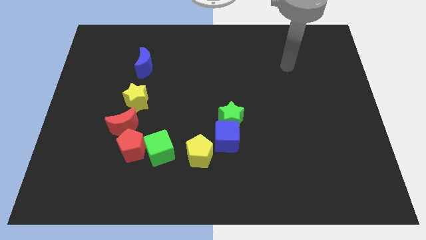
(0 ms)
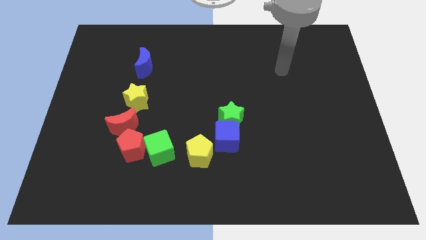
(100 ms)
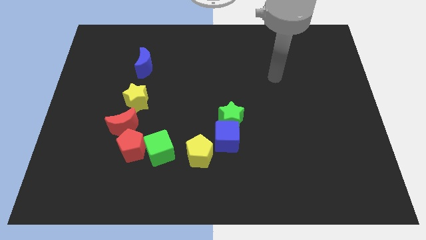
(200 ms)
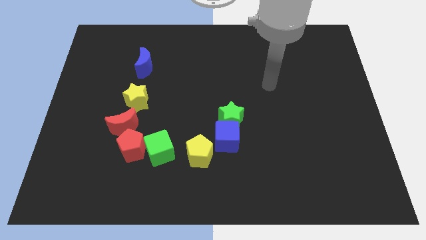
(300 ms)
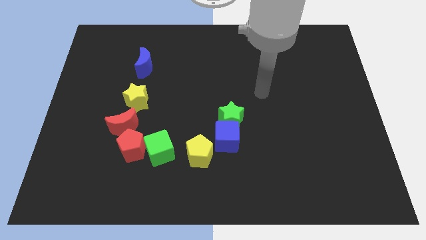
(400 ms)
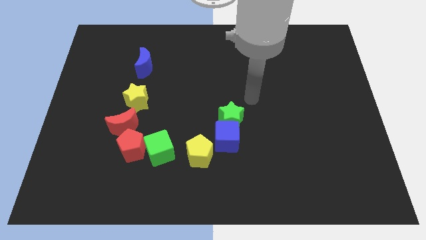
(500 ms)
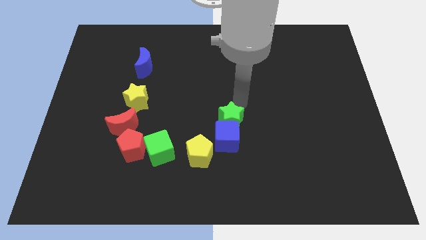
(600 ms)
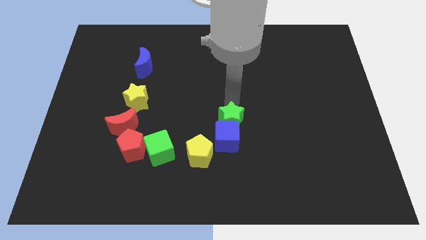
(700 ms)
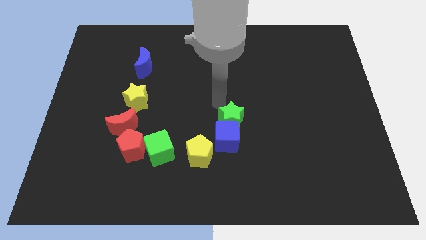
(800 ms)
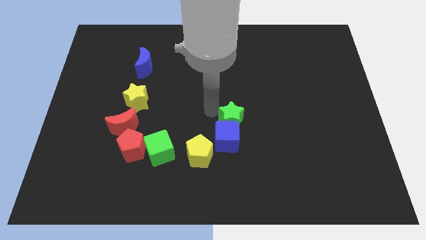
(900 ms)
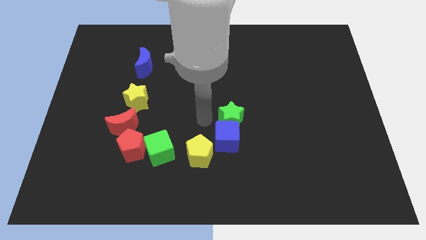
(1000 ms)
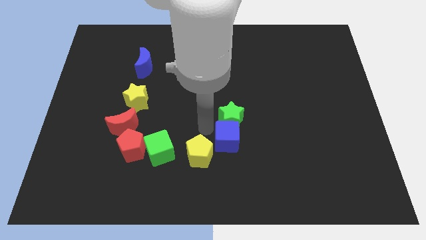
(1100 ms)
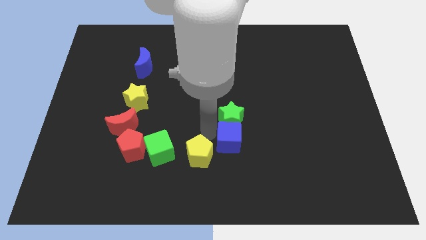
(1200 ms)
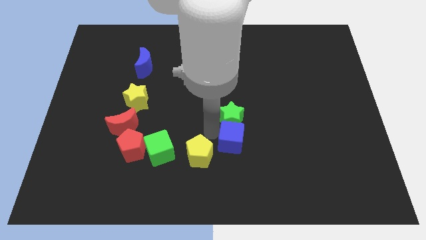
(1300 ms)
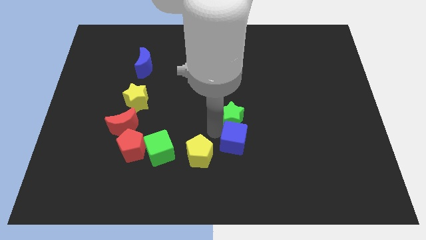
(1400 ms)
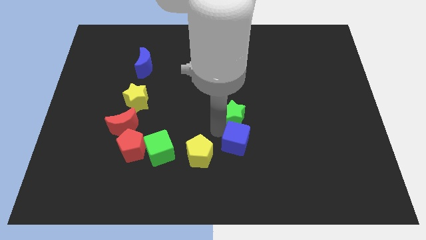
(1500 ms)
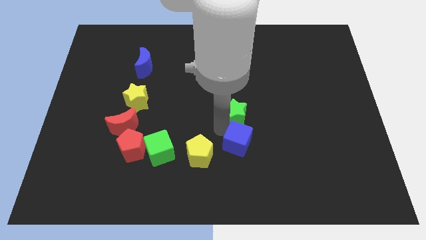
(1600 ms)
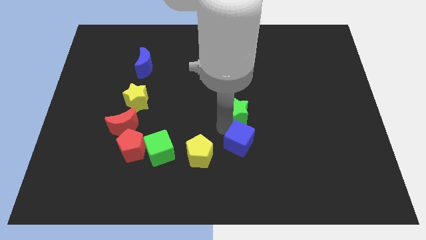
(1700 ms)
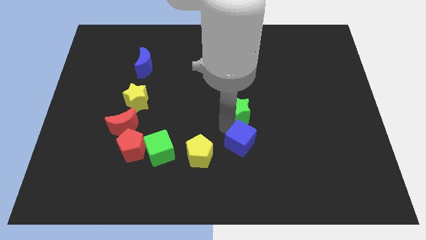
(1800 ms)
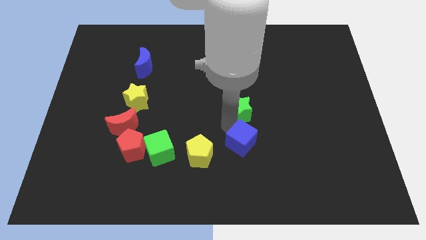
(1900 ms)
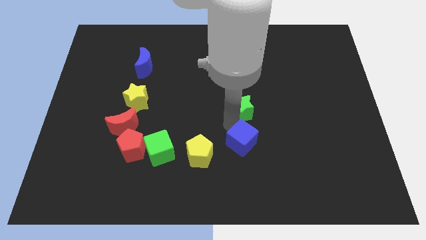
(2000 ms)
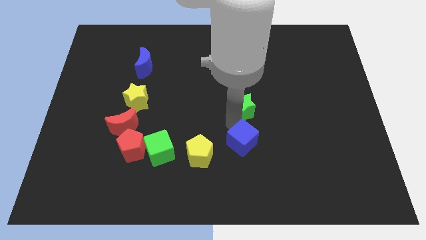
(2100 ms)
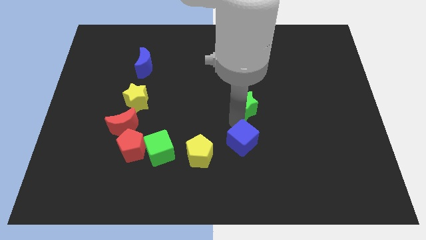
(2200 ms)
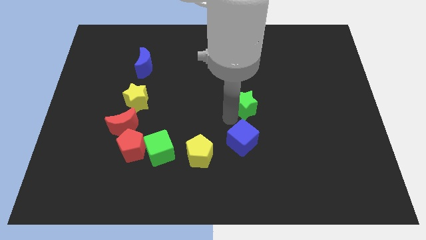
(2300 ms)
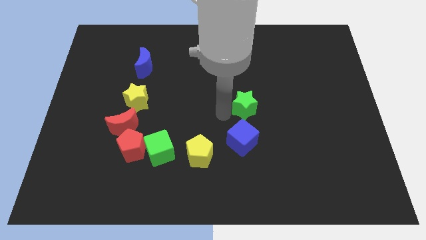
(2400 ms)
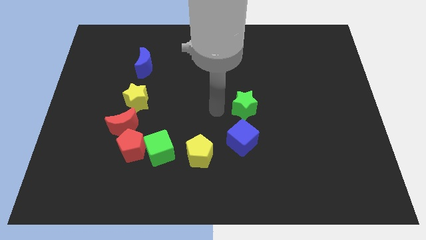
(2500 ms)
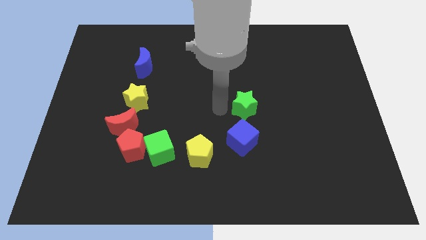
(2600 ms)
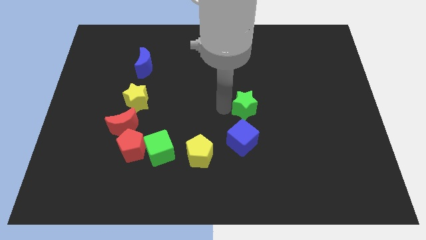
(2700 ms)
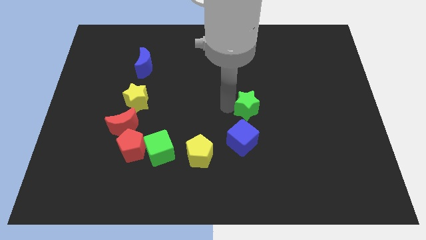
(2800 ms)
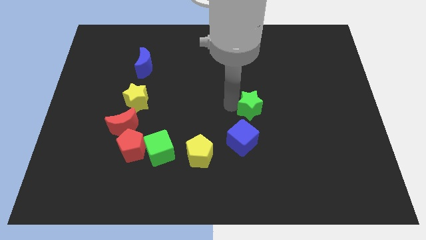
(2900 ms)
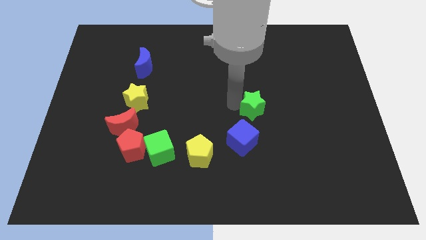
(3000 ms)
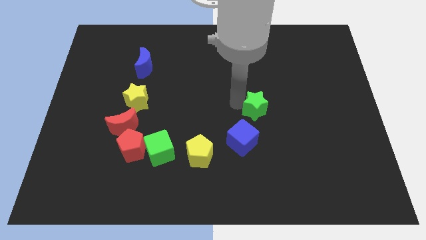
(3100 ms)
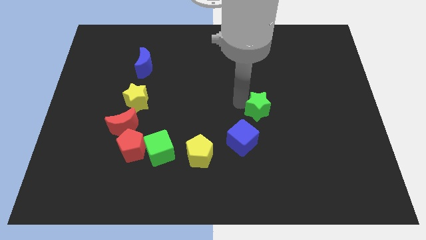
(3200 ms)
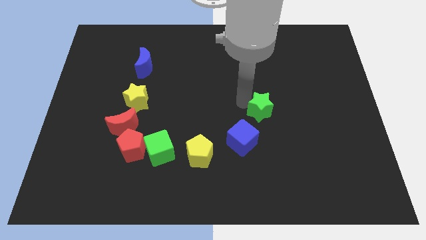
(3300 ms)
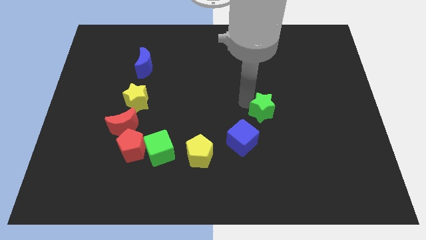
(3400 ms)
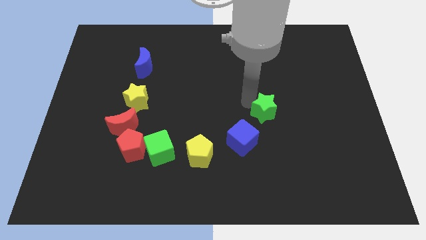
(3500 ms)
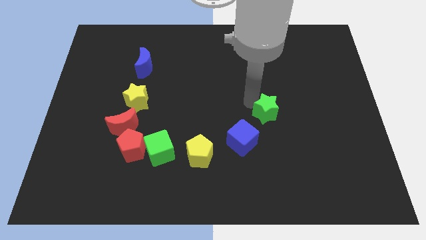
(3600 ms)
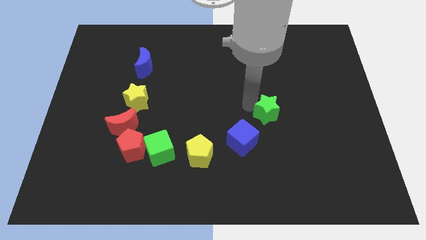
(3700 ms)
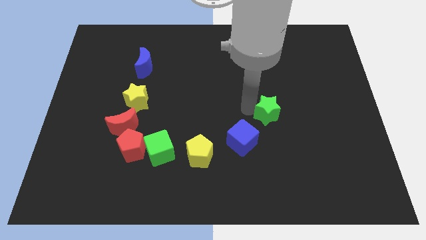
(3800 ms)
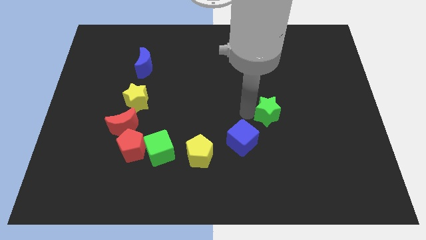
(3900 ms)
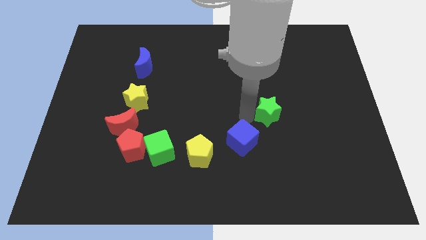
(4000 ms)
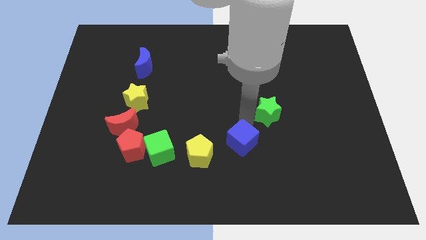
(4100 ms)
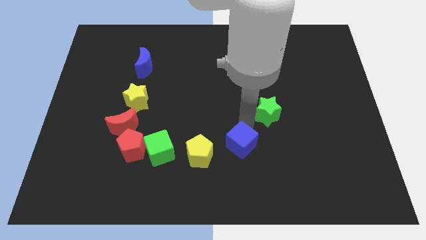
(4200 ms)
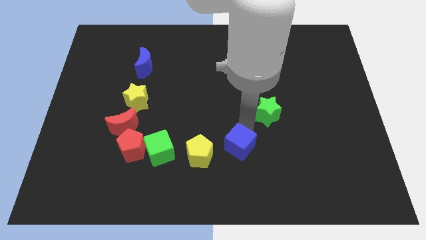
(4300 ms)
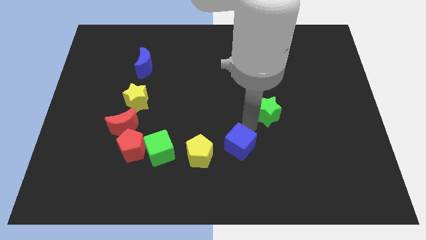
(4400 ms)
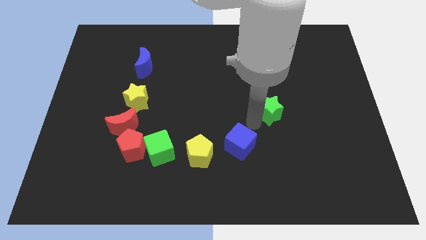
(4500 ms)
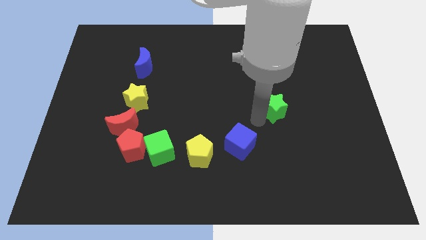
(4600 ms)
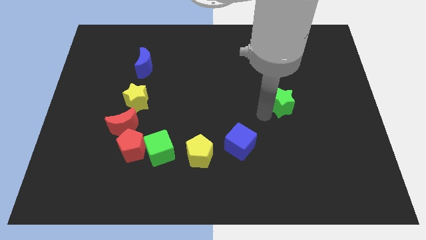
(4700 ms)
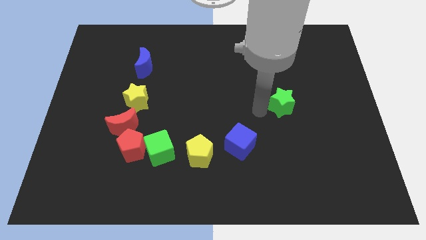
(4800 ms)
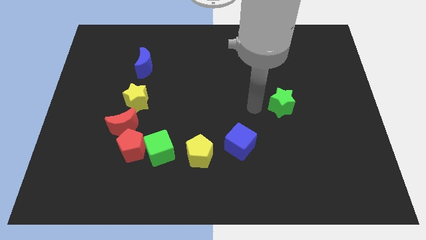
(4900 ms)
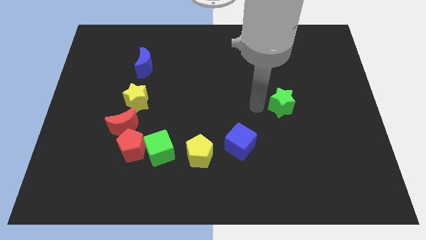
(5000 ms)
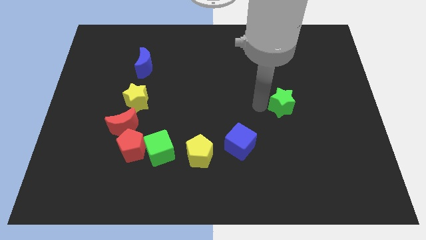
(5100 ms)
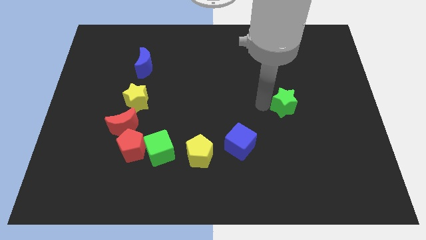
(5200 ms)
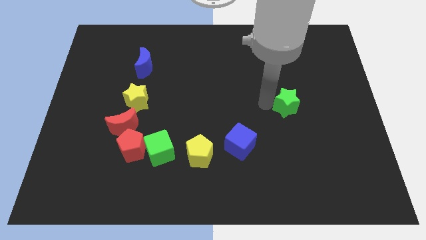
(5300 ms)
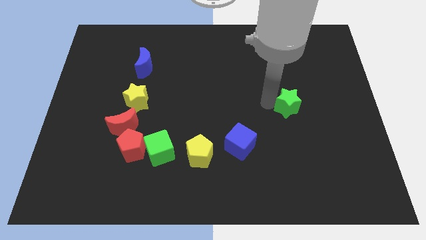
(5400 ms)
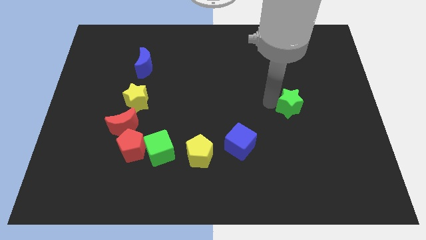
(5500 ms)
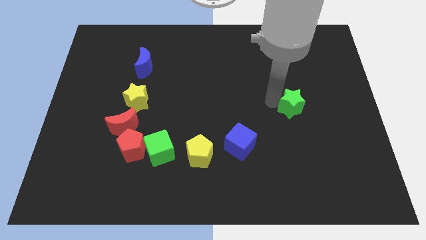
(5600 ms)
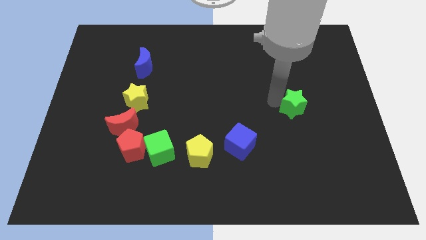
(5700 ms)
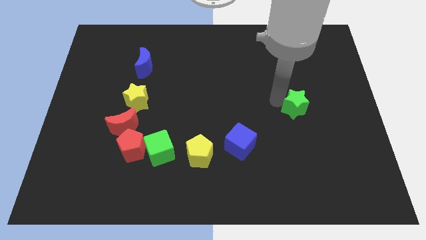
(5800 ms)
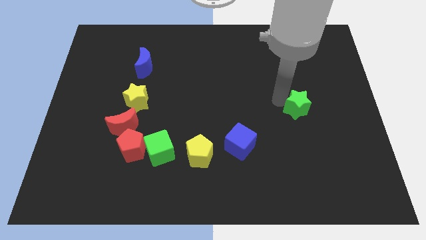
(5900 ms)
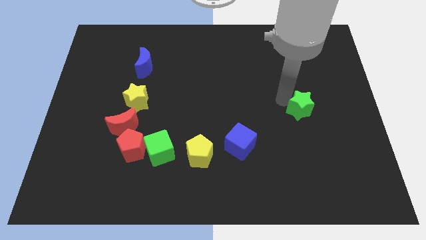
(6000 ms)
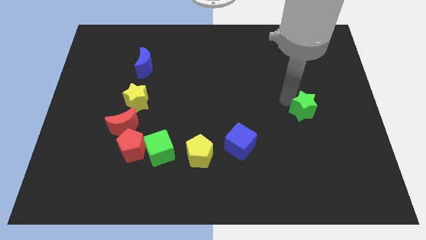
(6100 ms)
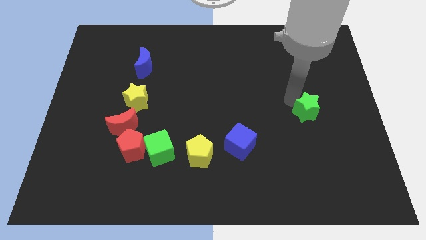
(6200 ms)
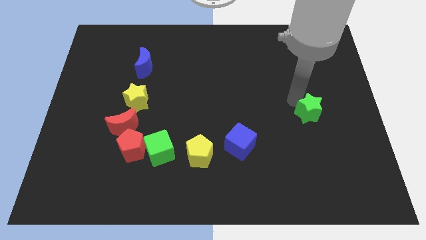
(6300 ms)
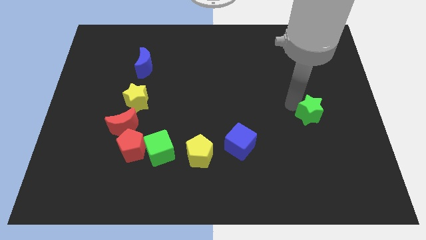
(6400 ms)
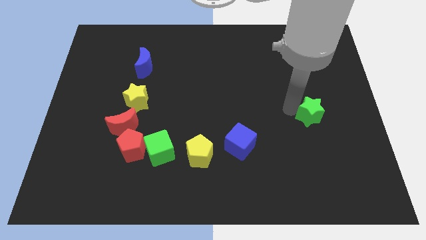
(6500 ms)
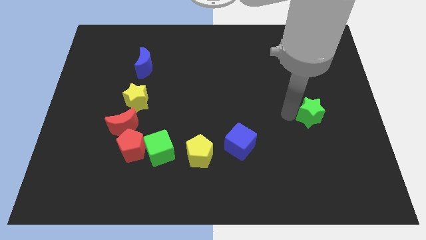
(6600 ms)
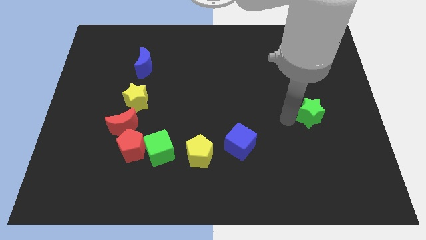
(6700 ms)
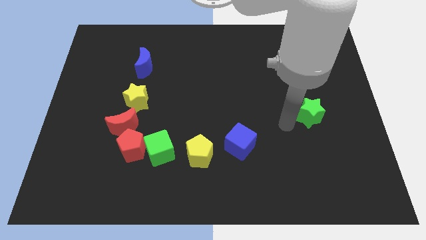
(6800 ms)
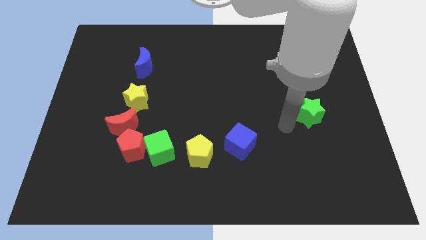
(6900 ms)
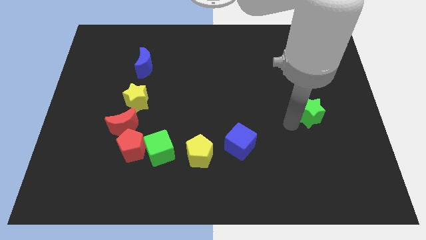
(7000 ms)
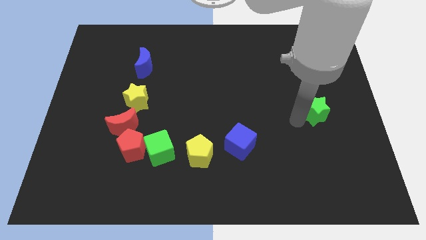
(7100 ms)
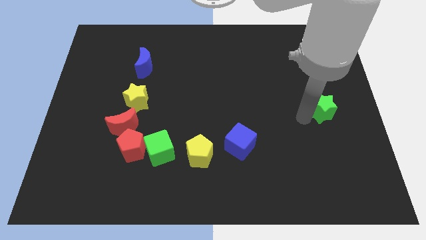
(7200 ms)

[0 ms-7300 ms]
slide the green star to the center right

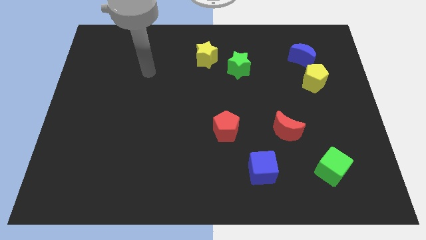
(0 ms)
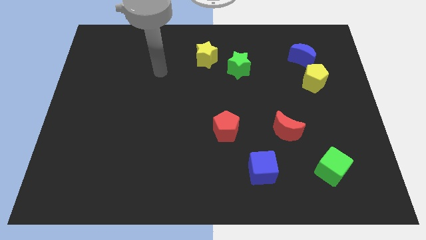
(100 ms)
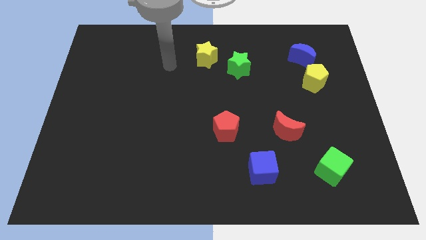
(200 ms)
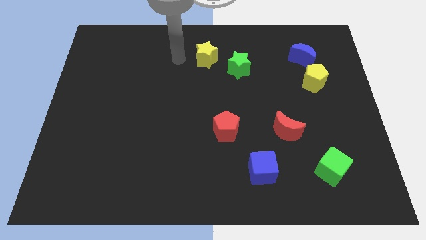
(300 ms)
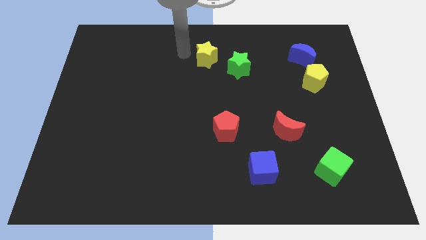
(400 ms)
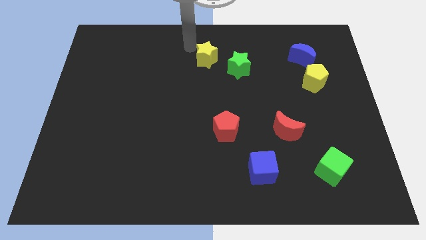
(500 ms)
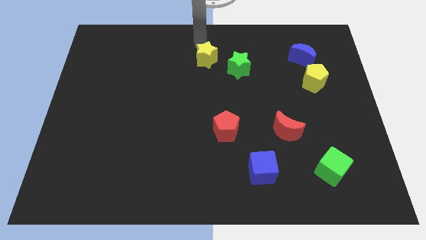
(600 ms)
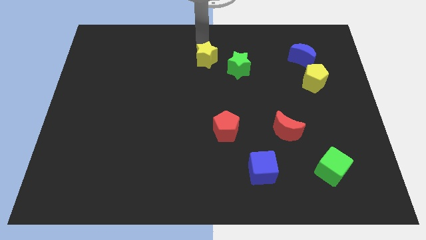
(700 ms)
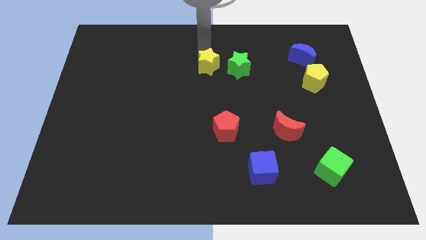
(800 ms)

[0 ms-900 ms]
slide the yellow star to the middle

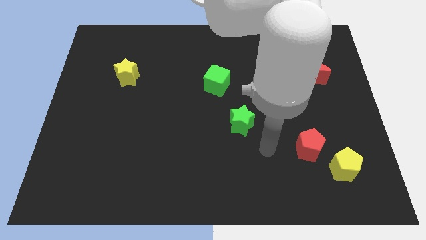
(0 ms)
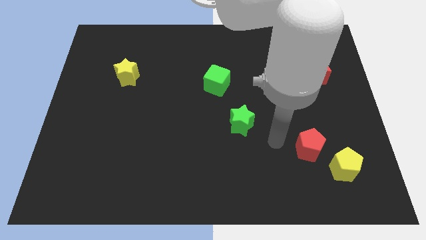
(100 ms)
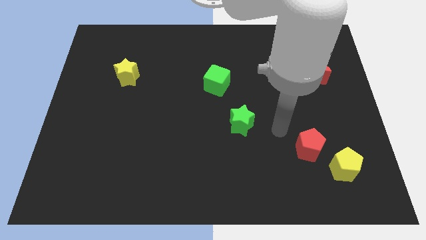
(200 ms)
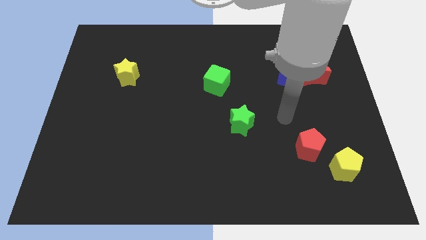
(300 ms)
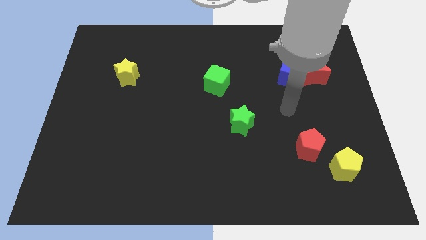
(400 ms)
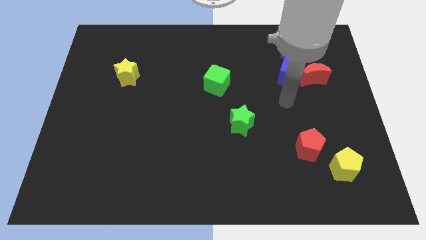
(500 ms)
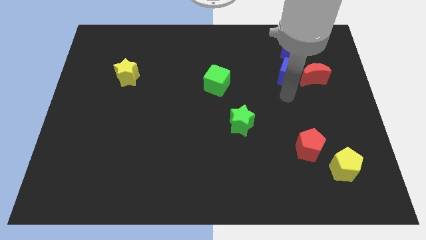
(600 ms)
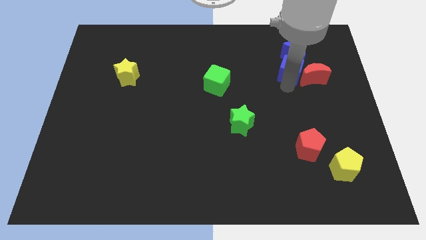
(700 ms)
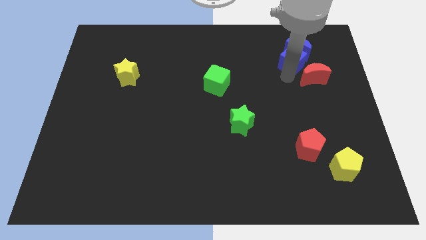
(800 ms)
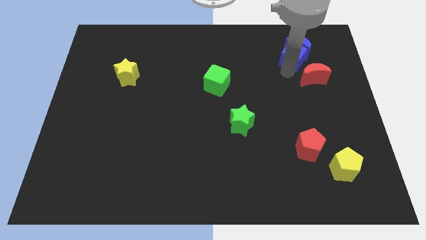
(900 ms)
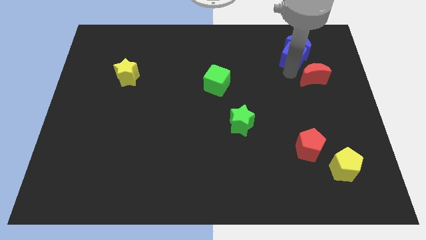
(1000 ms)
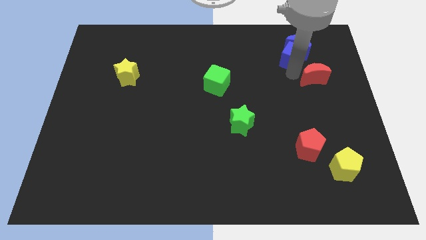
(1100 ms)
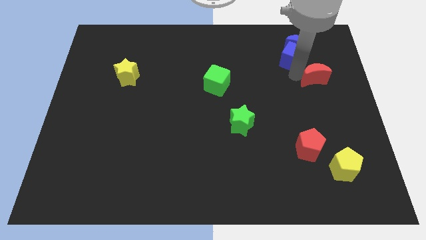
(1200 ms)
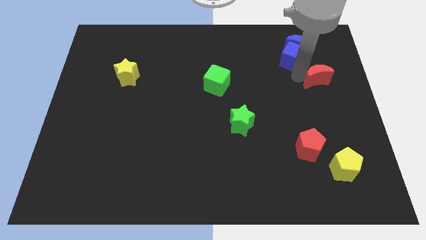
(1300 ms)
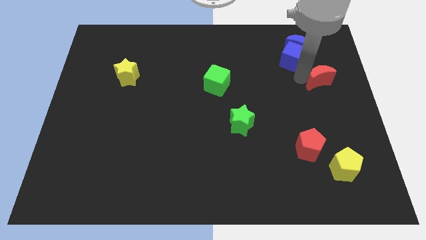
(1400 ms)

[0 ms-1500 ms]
push the red moon to the right side of the board
